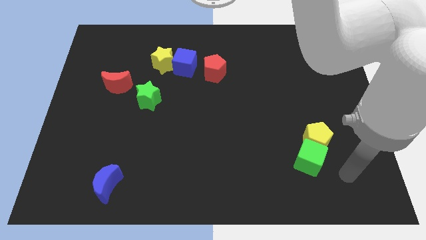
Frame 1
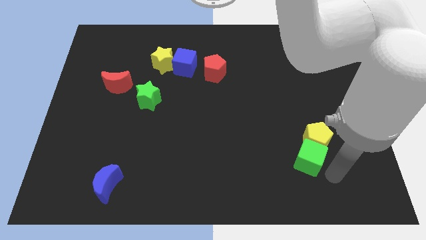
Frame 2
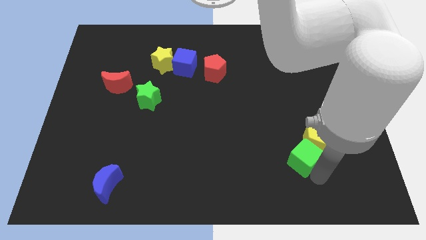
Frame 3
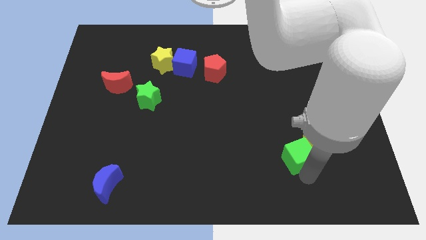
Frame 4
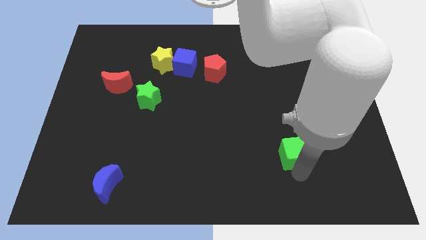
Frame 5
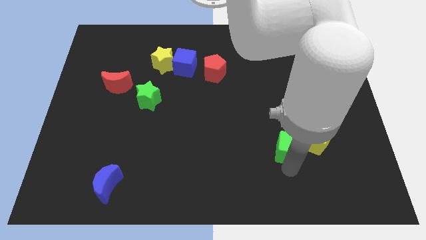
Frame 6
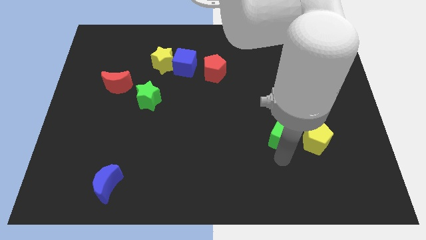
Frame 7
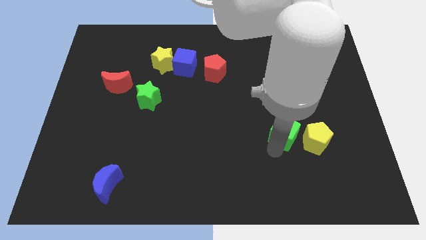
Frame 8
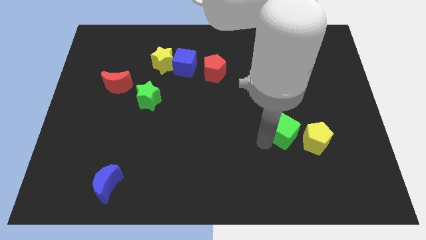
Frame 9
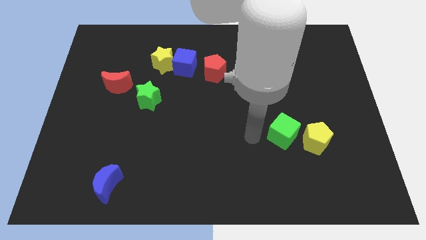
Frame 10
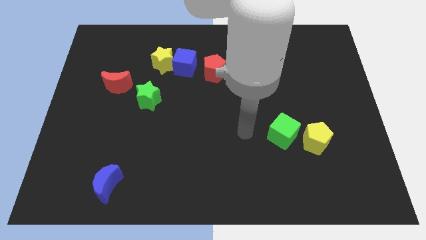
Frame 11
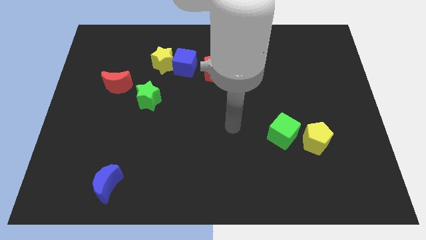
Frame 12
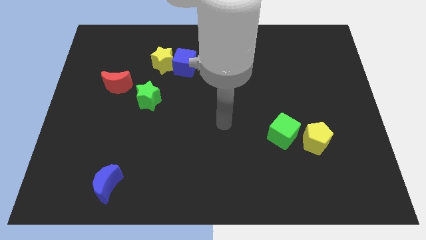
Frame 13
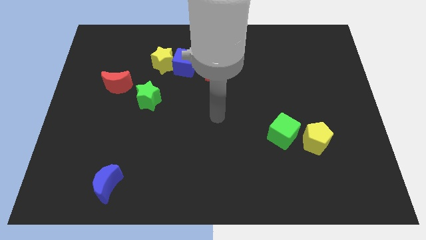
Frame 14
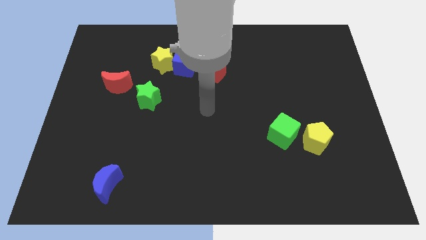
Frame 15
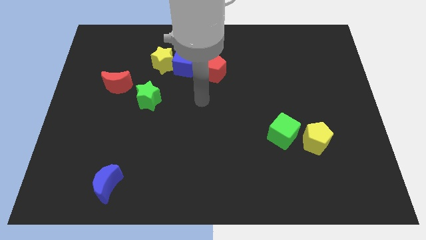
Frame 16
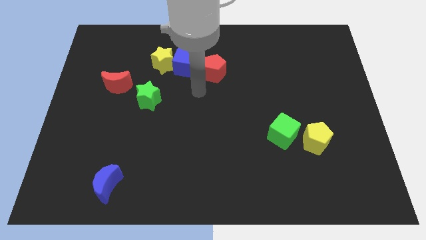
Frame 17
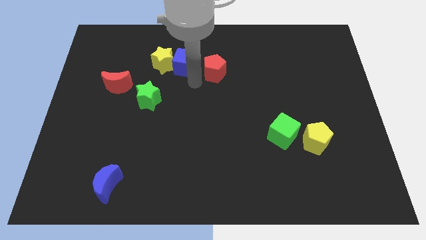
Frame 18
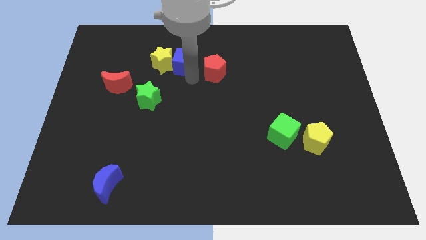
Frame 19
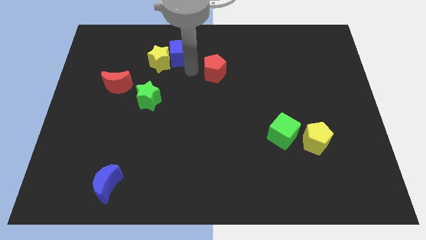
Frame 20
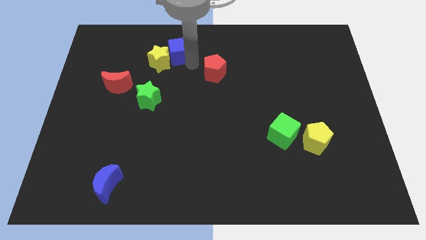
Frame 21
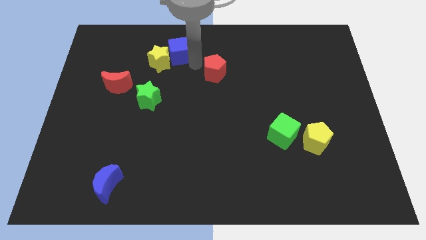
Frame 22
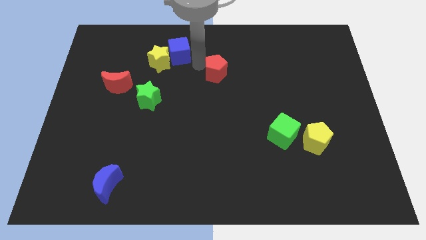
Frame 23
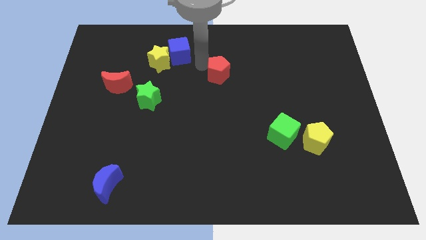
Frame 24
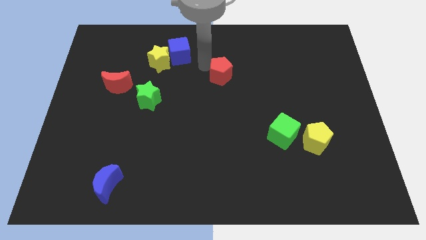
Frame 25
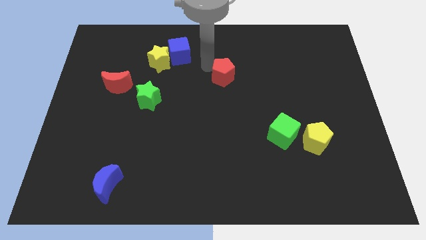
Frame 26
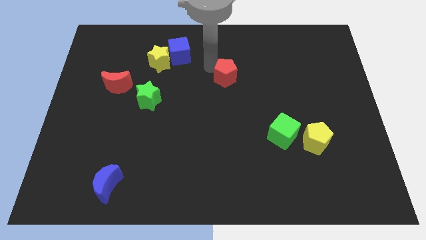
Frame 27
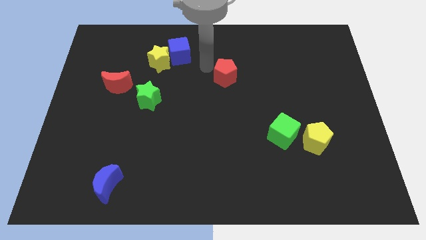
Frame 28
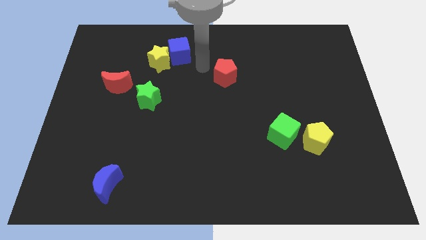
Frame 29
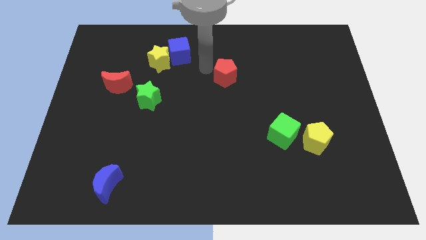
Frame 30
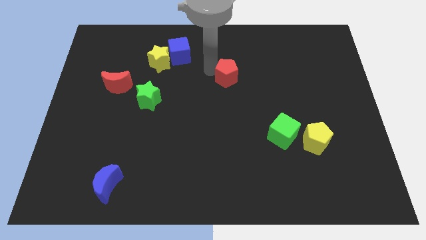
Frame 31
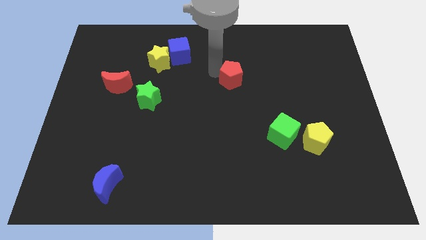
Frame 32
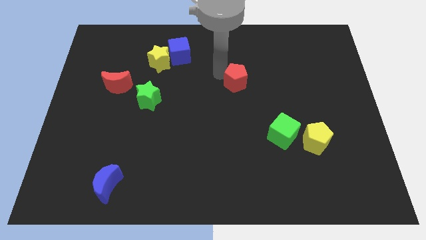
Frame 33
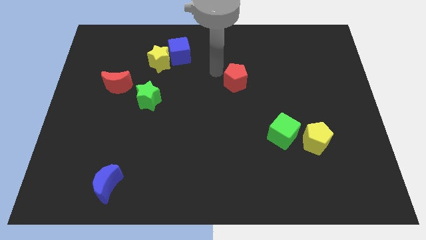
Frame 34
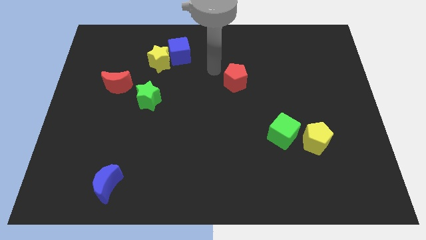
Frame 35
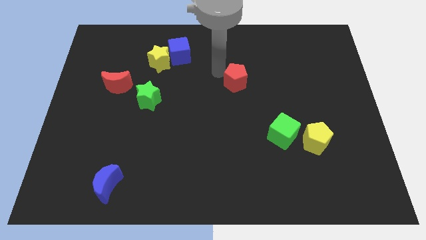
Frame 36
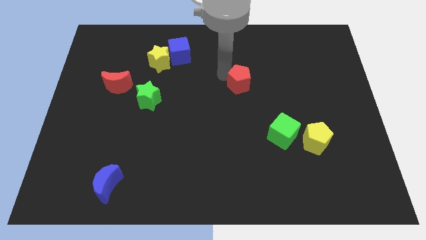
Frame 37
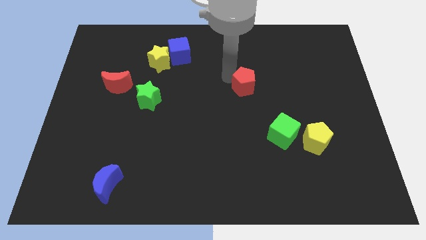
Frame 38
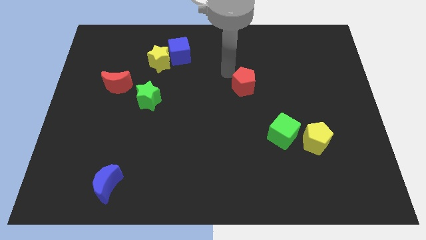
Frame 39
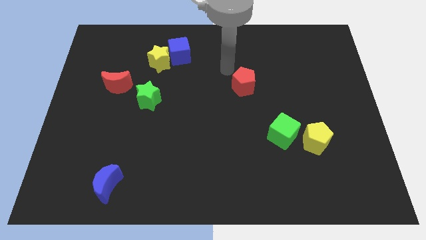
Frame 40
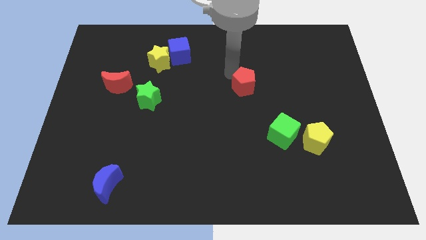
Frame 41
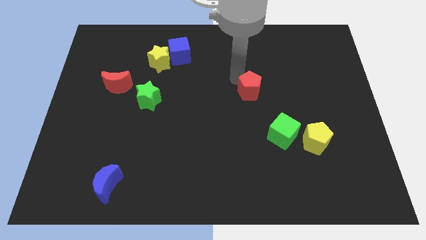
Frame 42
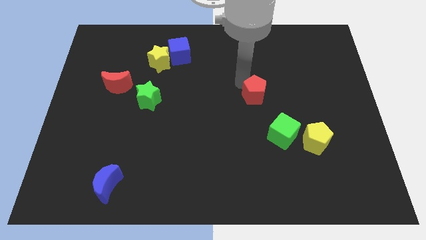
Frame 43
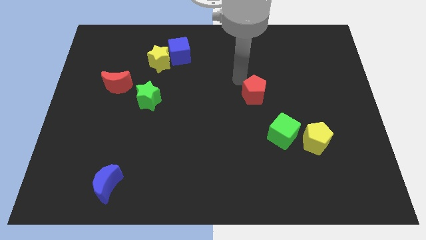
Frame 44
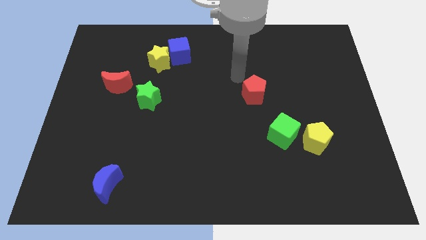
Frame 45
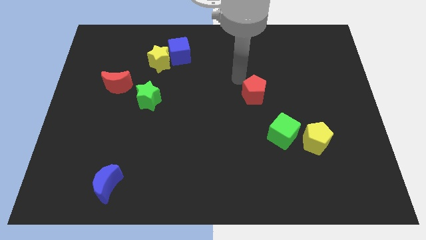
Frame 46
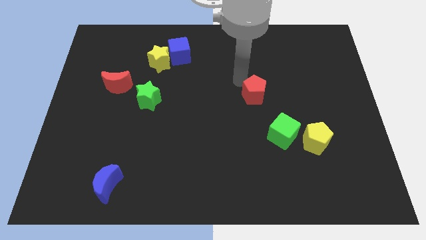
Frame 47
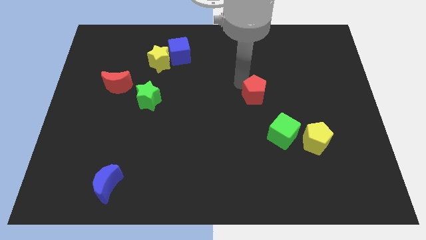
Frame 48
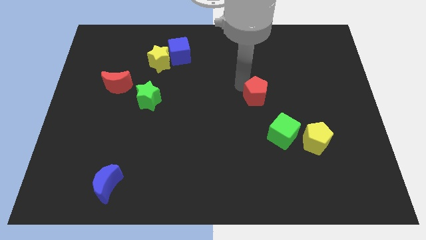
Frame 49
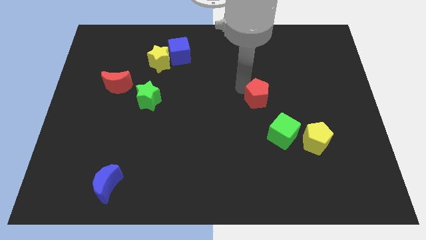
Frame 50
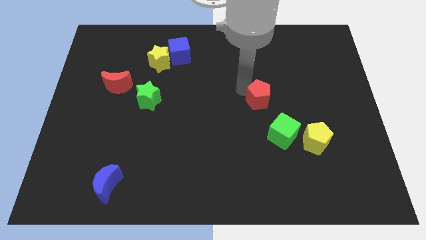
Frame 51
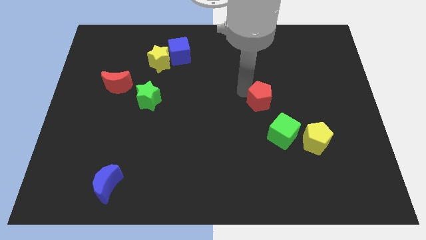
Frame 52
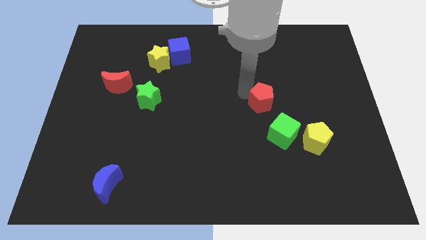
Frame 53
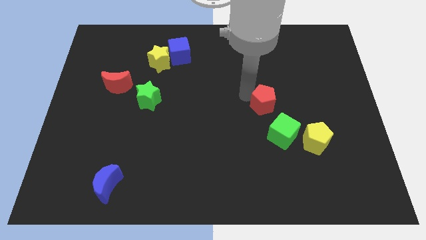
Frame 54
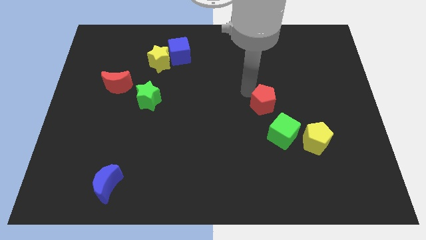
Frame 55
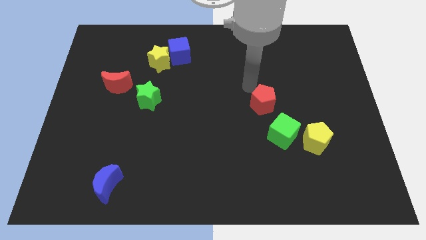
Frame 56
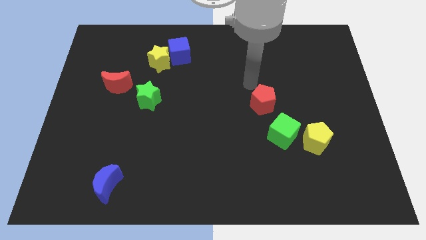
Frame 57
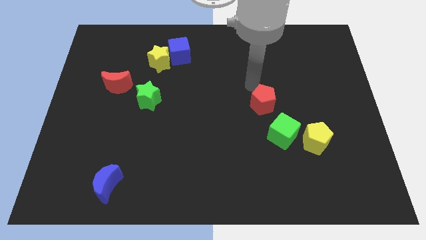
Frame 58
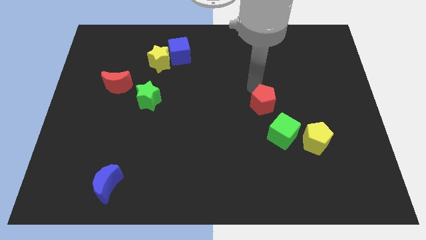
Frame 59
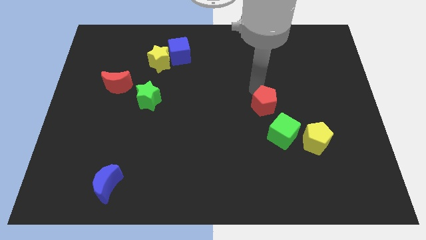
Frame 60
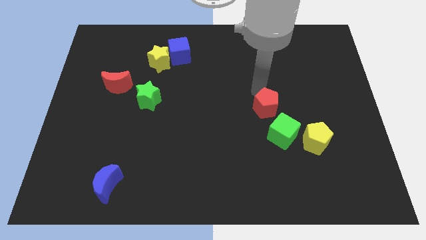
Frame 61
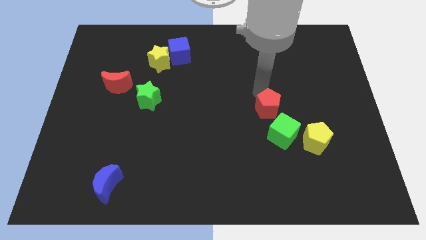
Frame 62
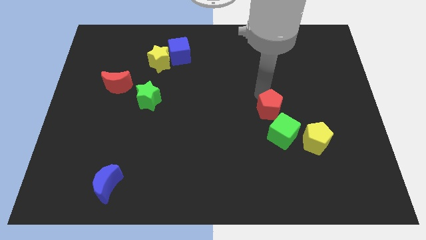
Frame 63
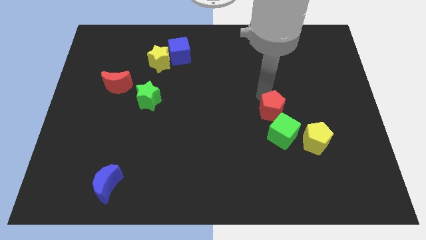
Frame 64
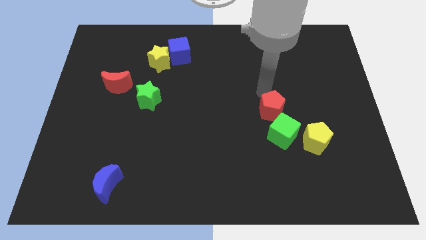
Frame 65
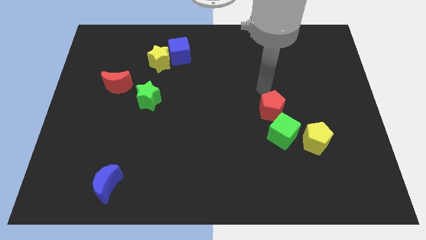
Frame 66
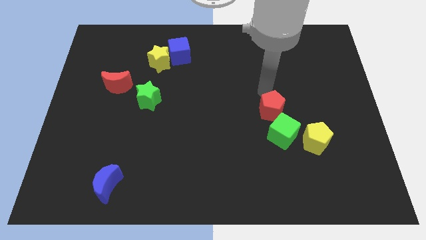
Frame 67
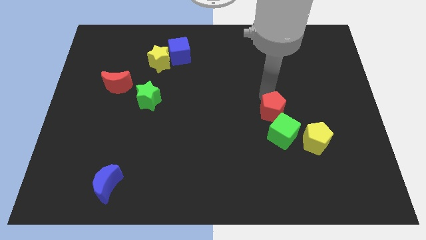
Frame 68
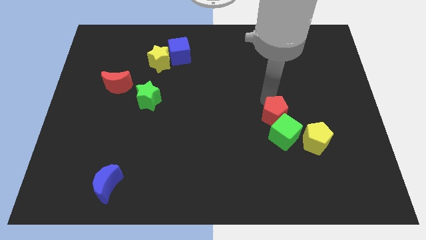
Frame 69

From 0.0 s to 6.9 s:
put the red pentagon towards the green cube
